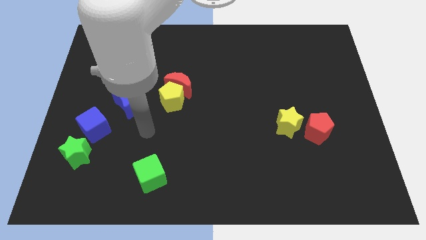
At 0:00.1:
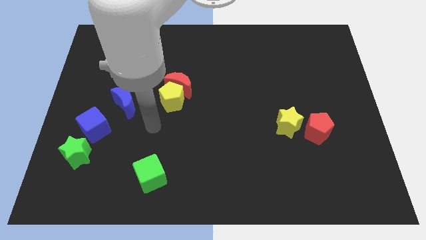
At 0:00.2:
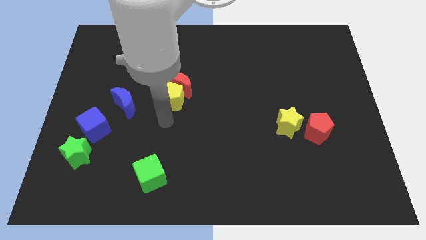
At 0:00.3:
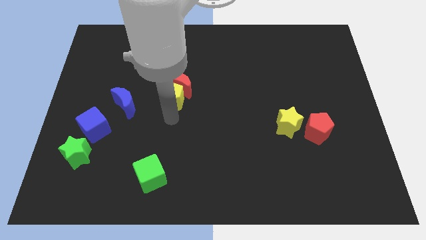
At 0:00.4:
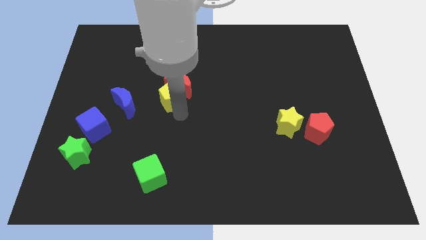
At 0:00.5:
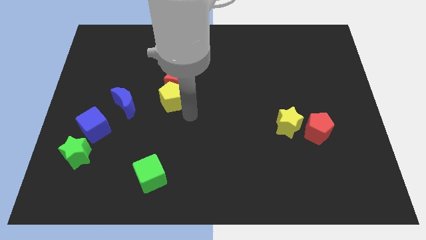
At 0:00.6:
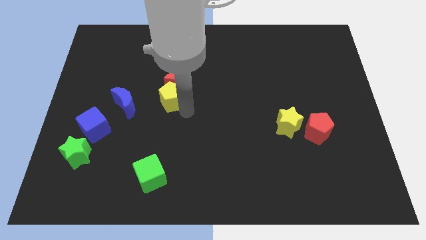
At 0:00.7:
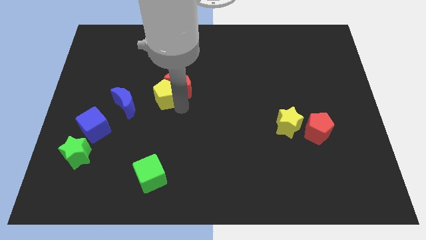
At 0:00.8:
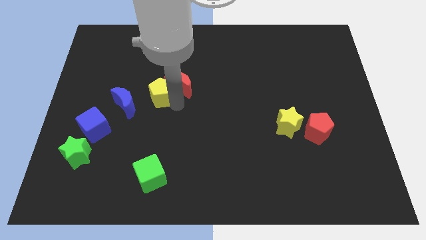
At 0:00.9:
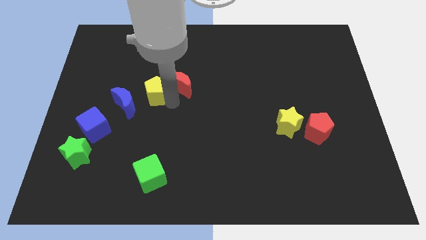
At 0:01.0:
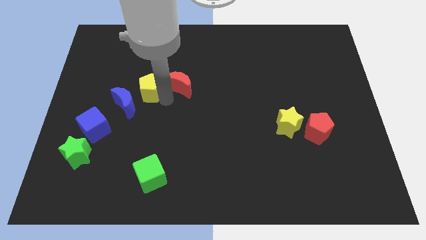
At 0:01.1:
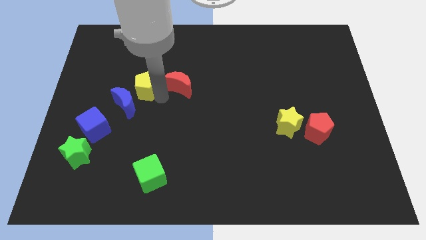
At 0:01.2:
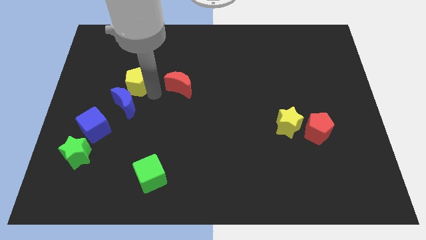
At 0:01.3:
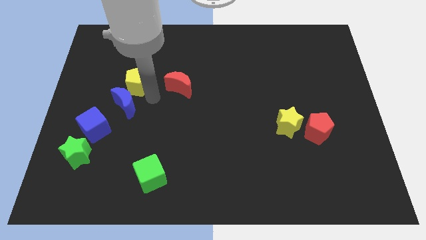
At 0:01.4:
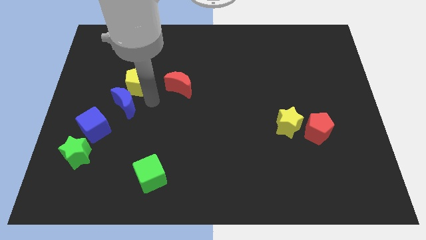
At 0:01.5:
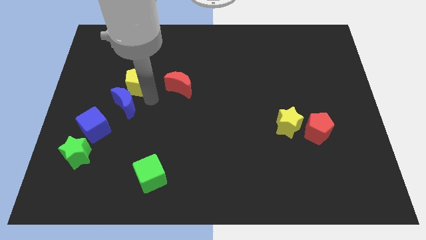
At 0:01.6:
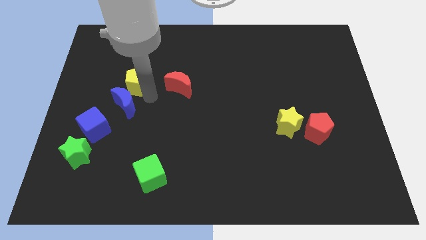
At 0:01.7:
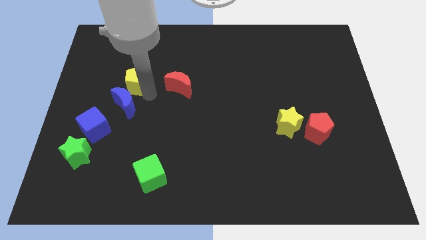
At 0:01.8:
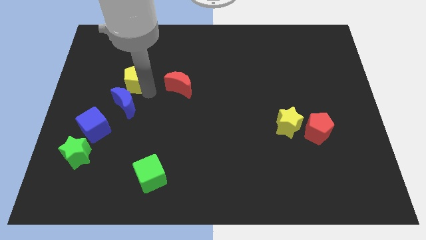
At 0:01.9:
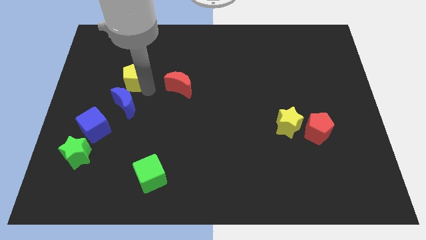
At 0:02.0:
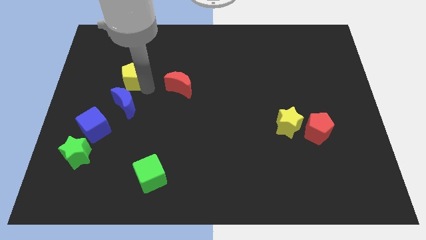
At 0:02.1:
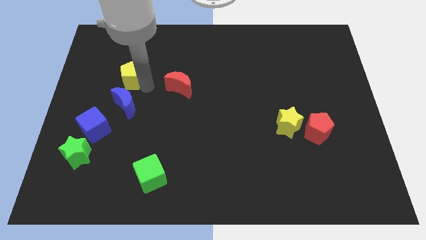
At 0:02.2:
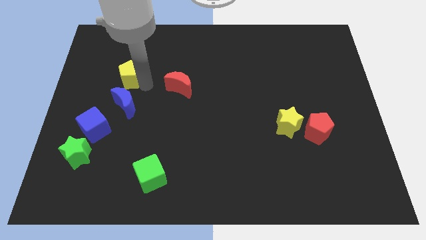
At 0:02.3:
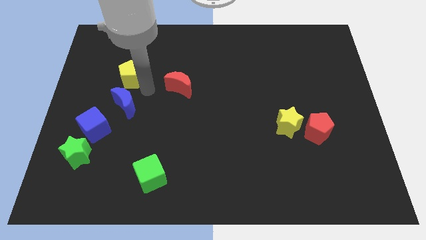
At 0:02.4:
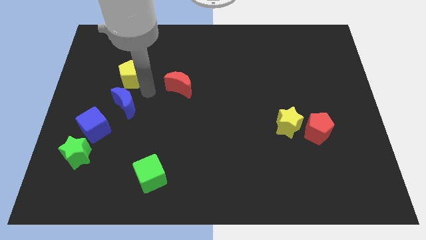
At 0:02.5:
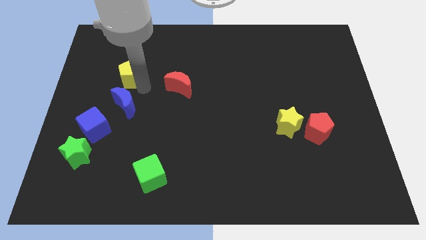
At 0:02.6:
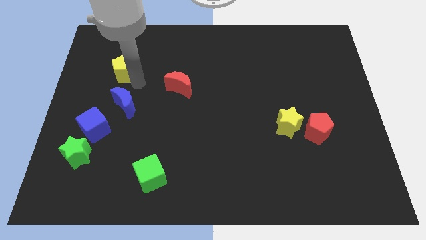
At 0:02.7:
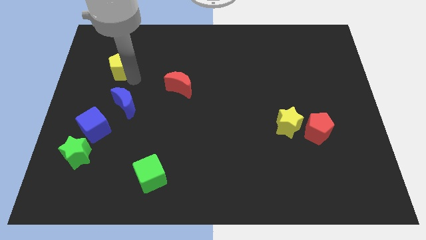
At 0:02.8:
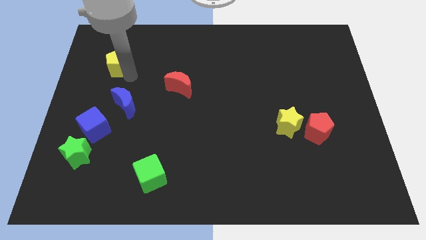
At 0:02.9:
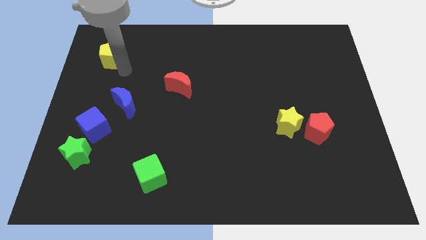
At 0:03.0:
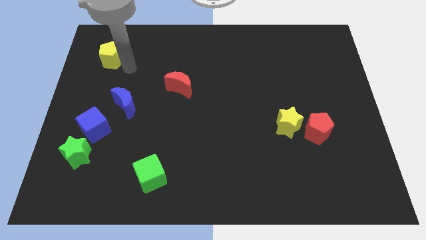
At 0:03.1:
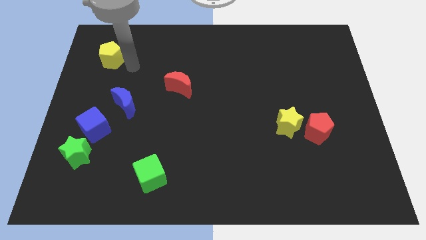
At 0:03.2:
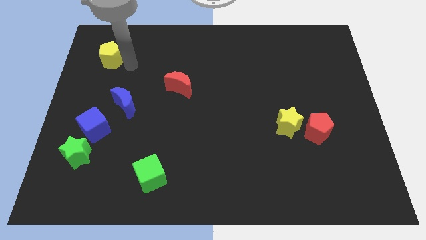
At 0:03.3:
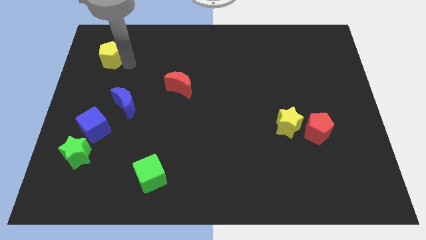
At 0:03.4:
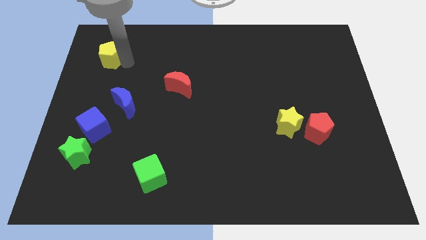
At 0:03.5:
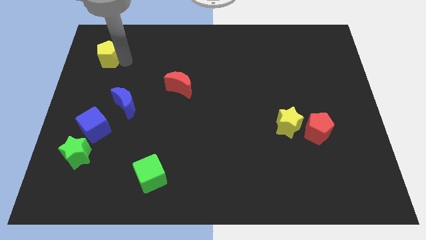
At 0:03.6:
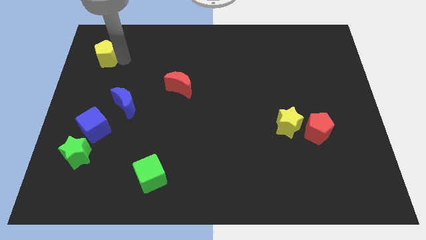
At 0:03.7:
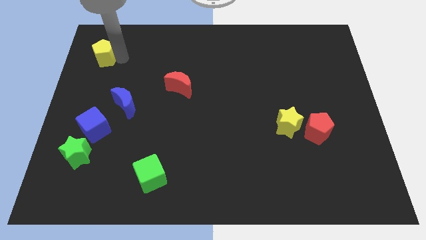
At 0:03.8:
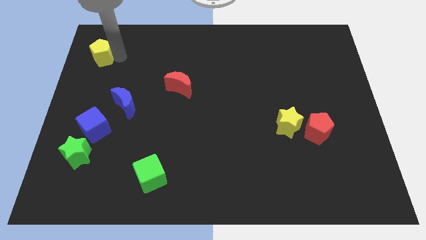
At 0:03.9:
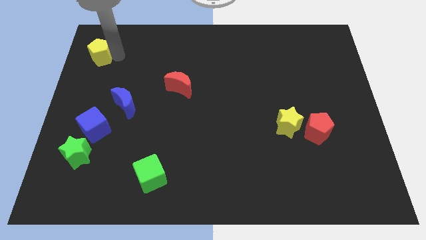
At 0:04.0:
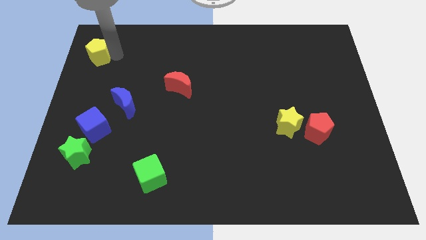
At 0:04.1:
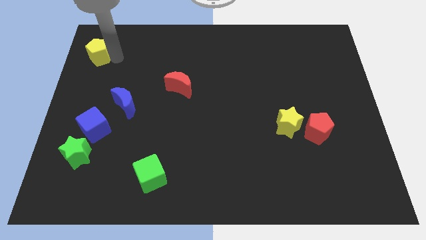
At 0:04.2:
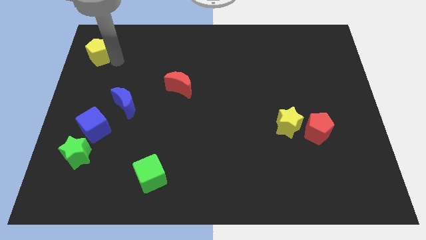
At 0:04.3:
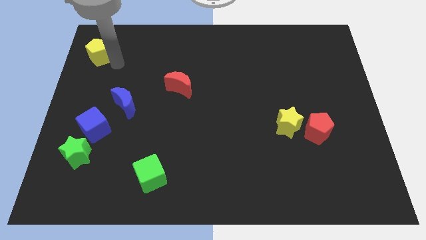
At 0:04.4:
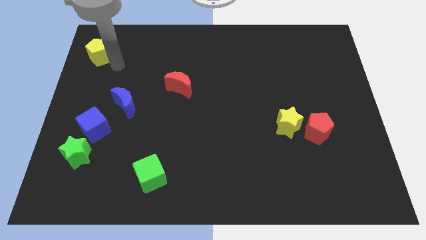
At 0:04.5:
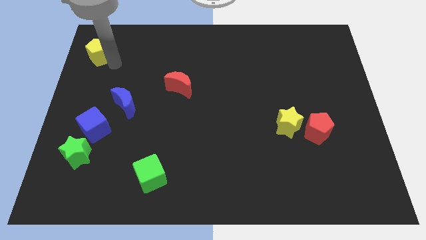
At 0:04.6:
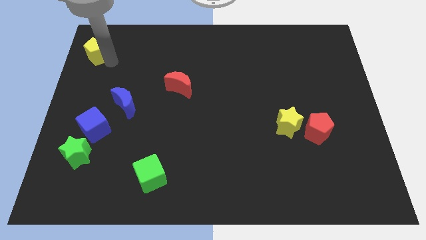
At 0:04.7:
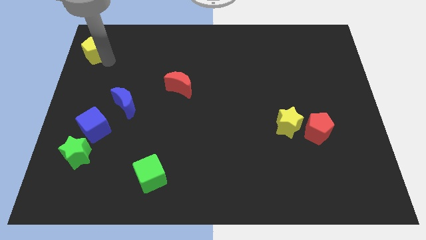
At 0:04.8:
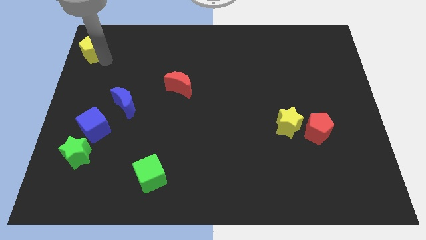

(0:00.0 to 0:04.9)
slide the yellow pentagon to the top left

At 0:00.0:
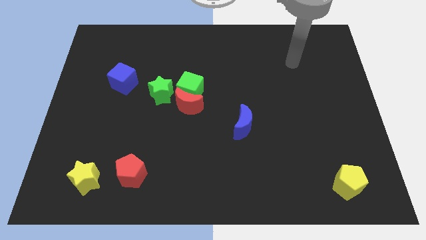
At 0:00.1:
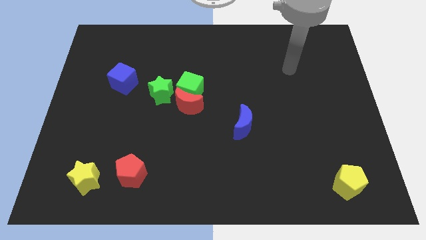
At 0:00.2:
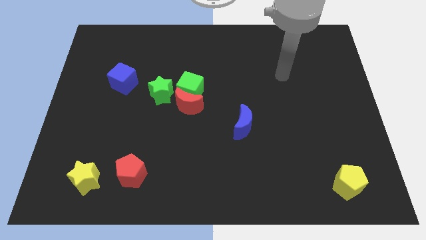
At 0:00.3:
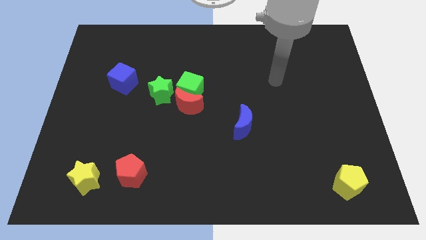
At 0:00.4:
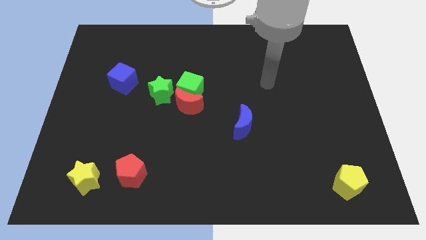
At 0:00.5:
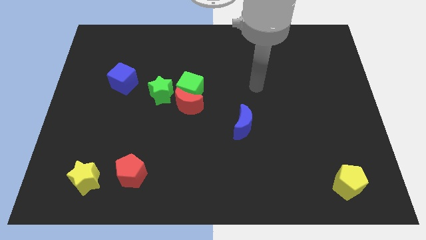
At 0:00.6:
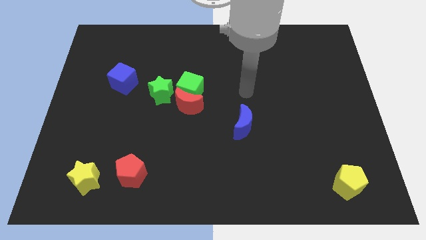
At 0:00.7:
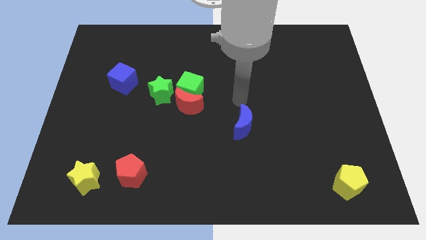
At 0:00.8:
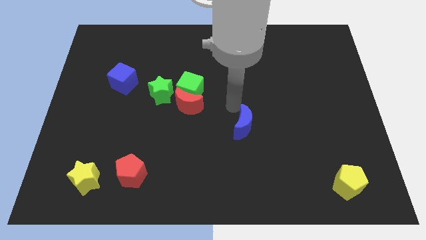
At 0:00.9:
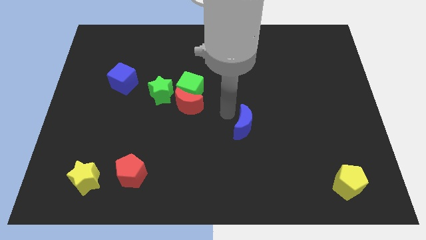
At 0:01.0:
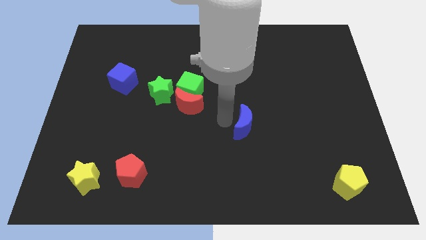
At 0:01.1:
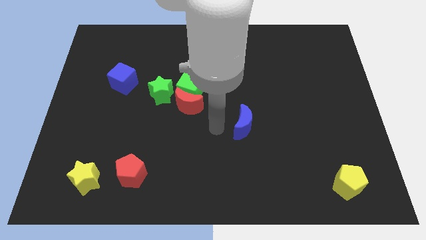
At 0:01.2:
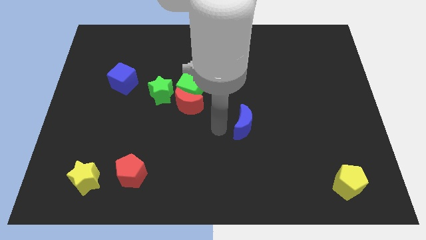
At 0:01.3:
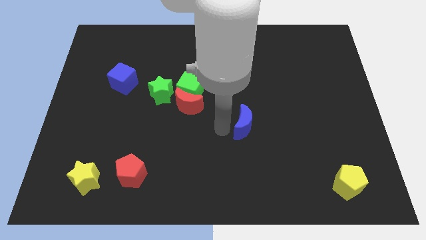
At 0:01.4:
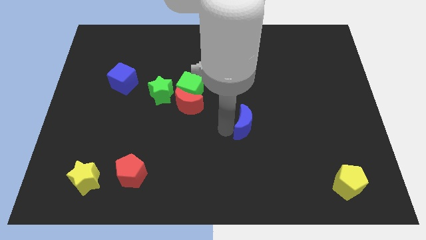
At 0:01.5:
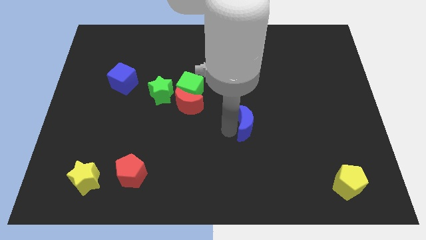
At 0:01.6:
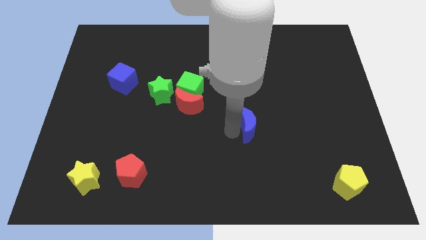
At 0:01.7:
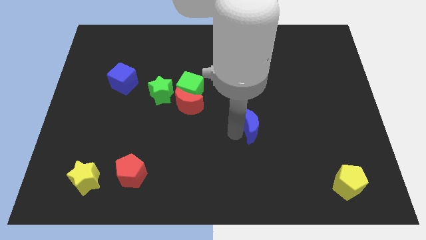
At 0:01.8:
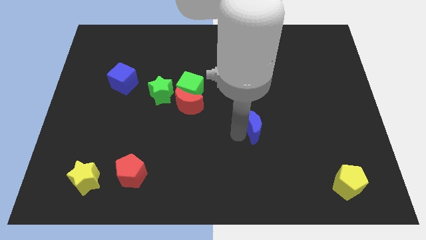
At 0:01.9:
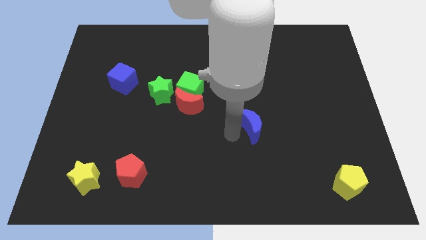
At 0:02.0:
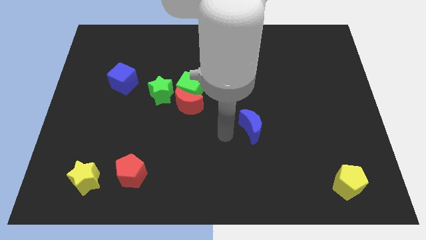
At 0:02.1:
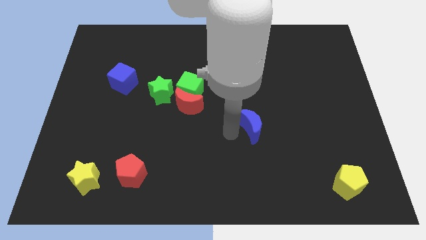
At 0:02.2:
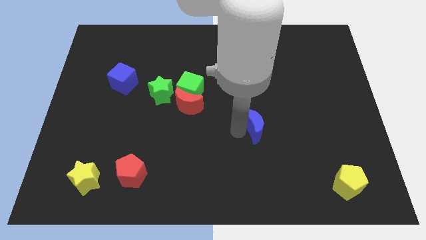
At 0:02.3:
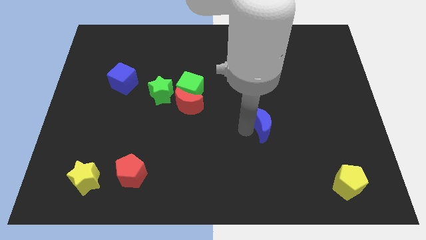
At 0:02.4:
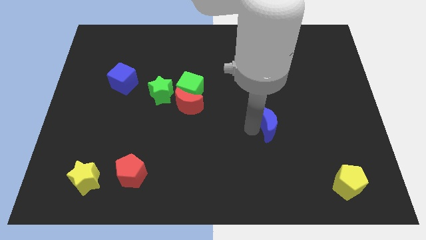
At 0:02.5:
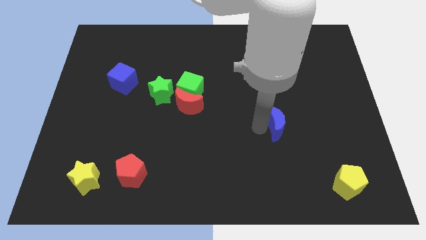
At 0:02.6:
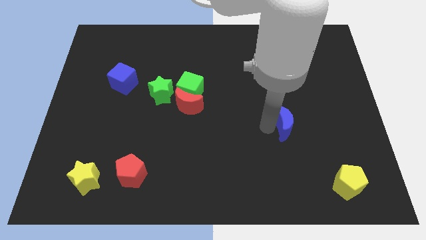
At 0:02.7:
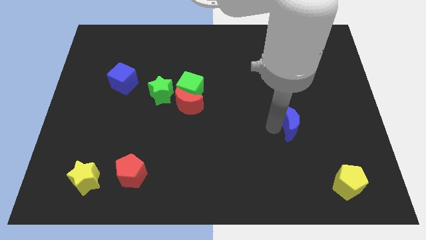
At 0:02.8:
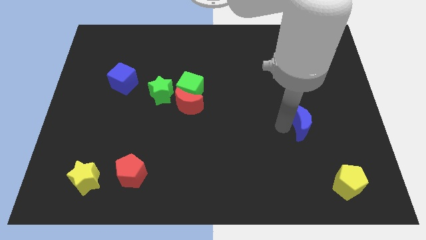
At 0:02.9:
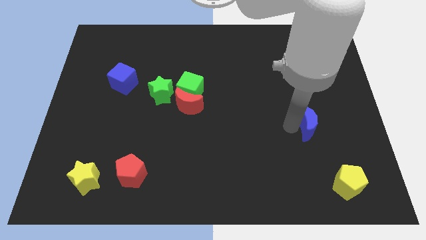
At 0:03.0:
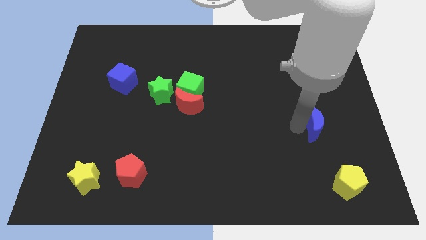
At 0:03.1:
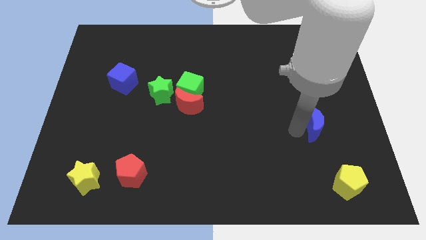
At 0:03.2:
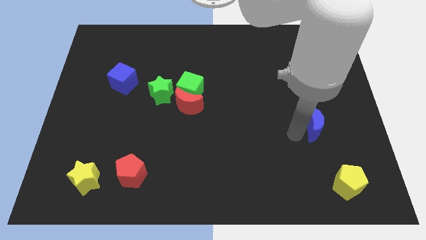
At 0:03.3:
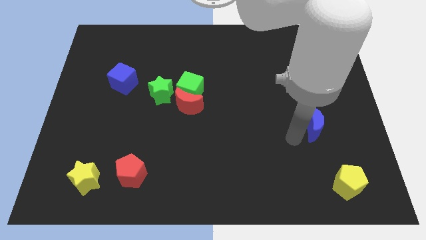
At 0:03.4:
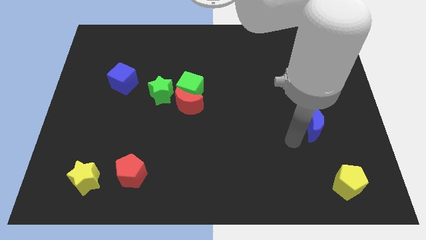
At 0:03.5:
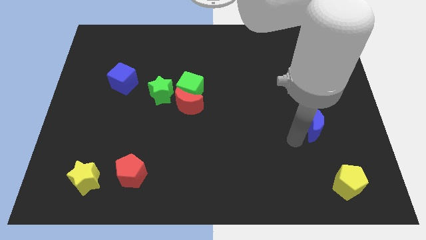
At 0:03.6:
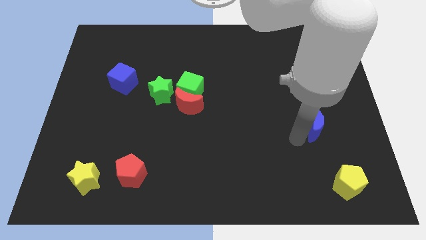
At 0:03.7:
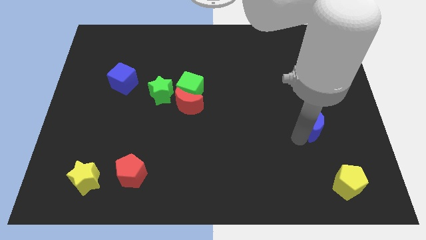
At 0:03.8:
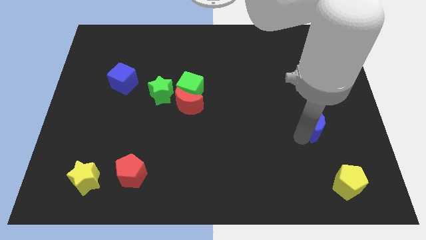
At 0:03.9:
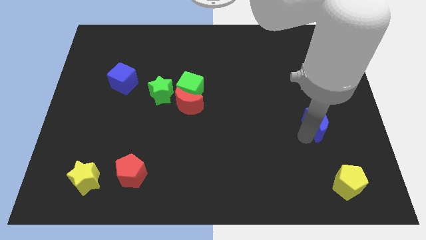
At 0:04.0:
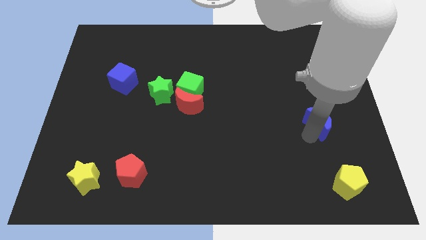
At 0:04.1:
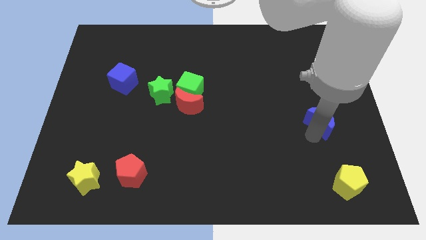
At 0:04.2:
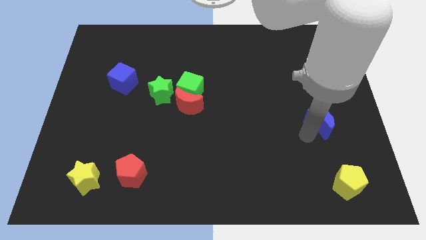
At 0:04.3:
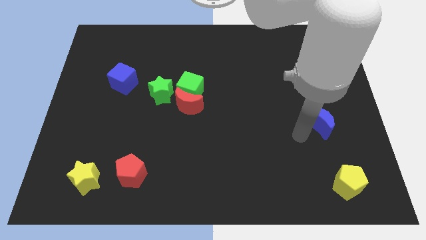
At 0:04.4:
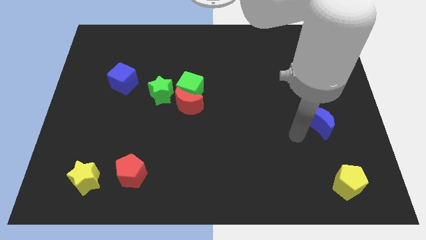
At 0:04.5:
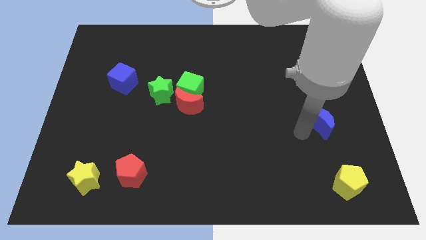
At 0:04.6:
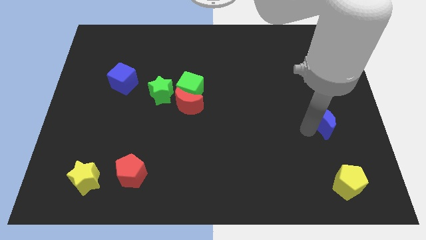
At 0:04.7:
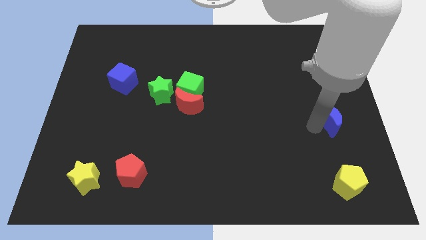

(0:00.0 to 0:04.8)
move the blue moon to the right side
